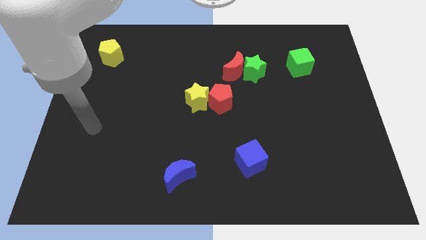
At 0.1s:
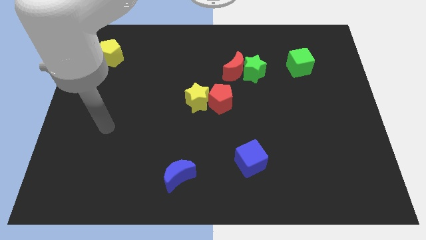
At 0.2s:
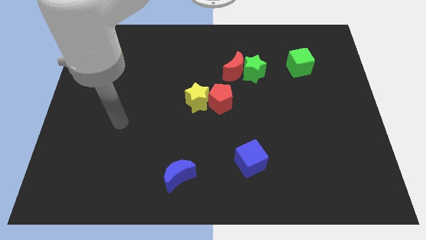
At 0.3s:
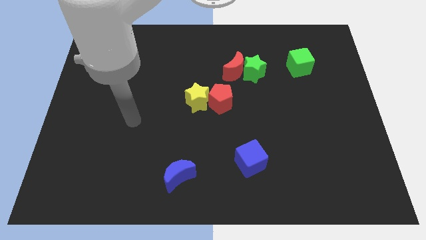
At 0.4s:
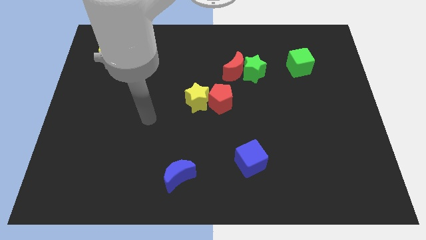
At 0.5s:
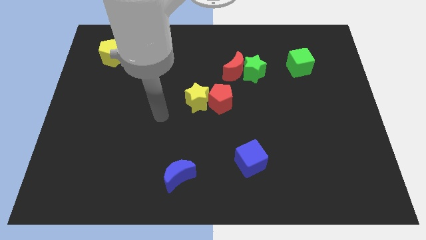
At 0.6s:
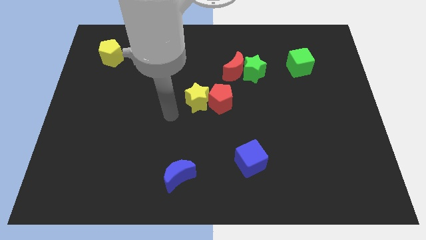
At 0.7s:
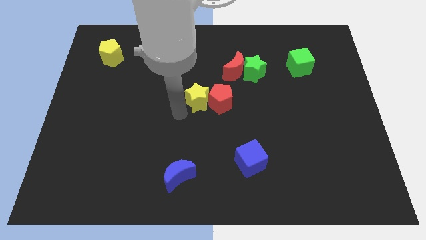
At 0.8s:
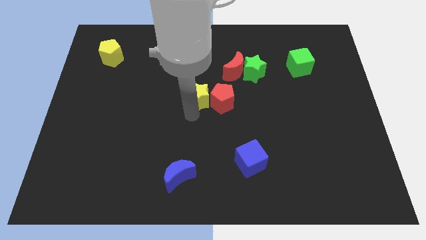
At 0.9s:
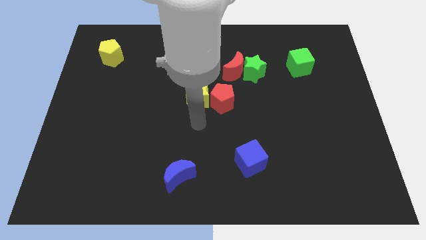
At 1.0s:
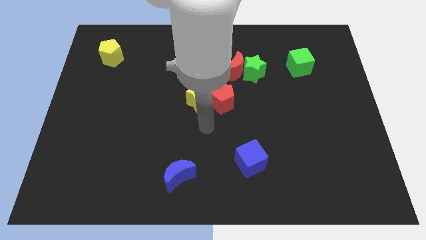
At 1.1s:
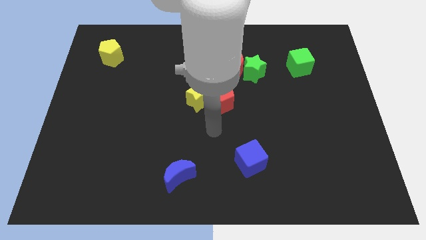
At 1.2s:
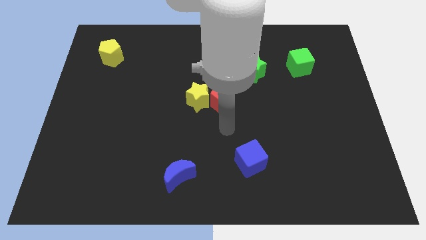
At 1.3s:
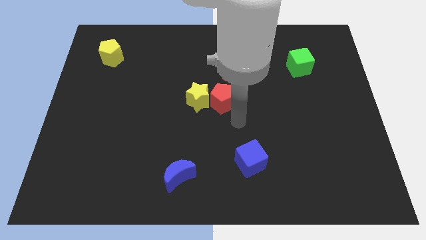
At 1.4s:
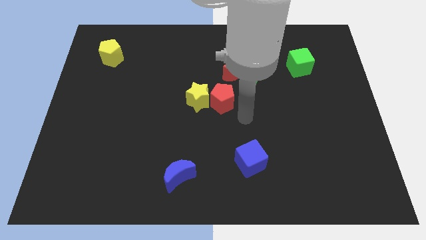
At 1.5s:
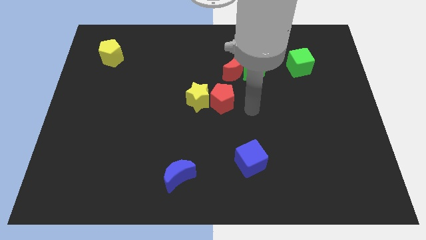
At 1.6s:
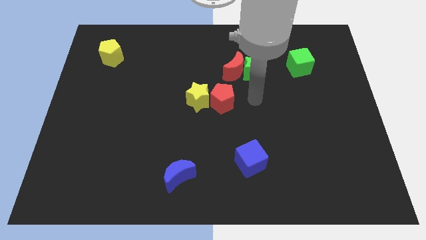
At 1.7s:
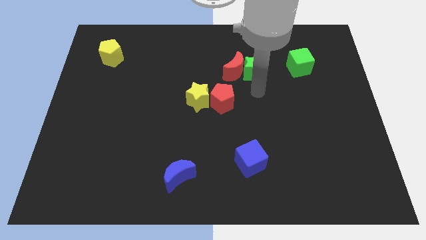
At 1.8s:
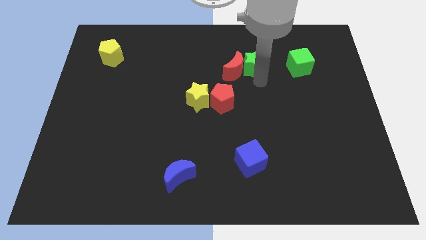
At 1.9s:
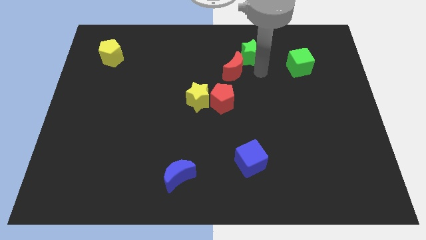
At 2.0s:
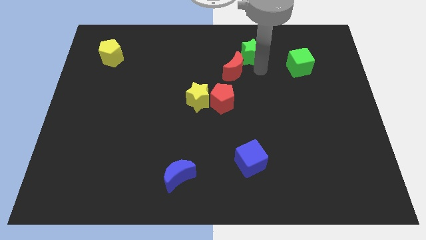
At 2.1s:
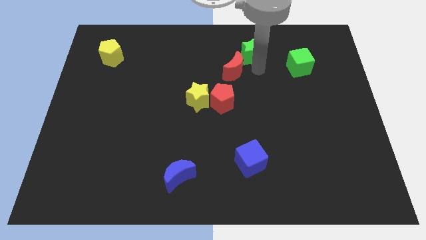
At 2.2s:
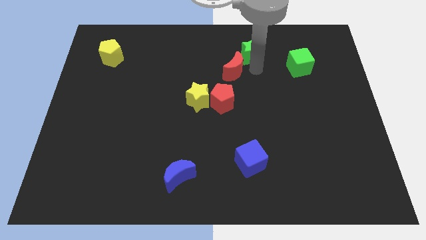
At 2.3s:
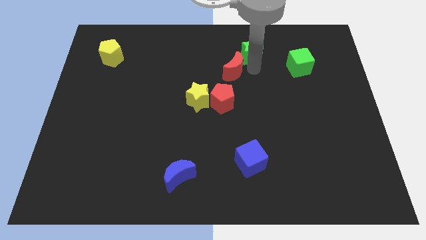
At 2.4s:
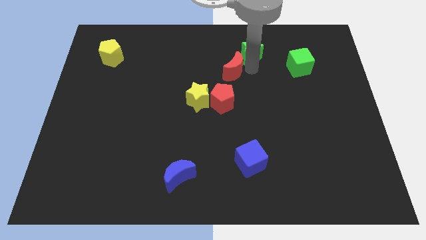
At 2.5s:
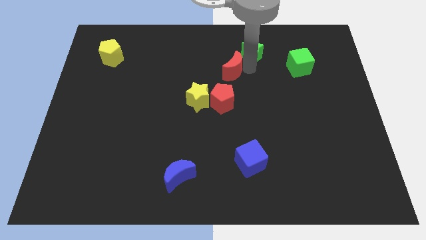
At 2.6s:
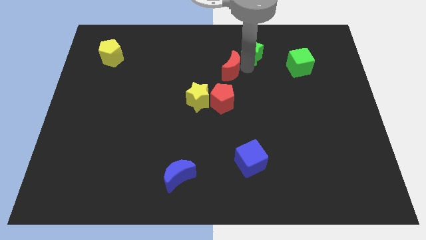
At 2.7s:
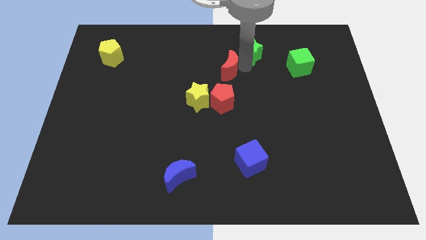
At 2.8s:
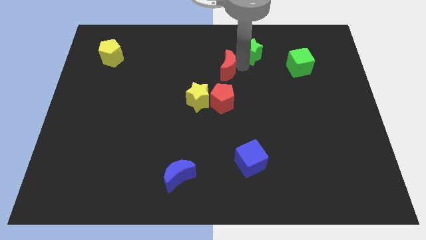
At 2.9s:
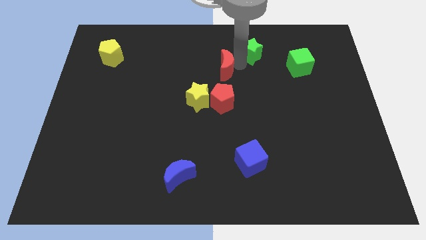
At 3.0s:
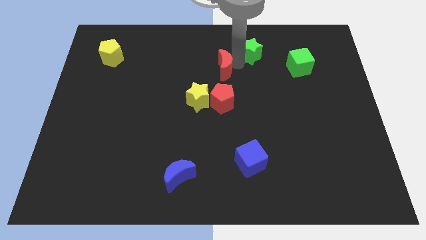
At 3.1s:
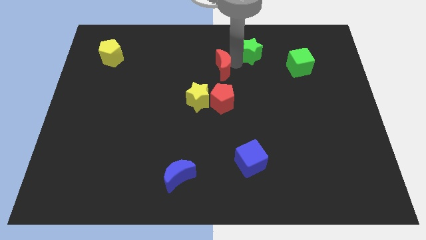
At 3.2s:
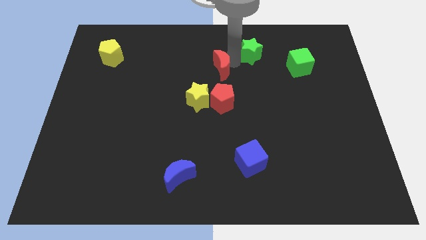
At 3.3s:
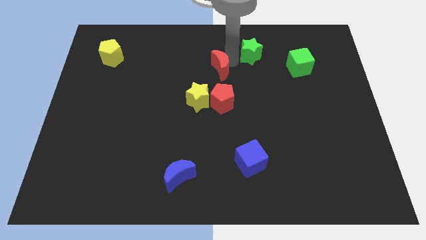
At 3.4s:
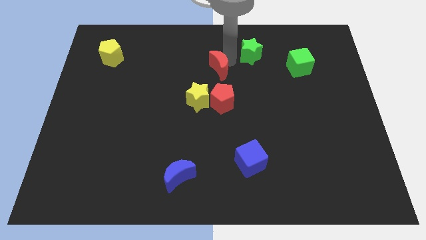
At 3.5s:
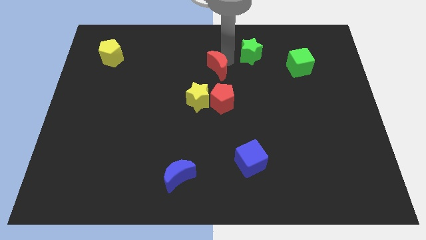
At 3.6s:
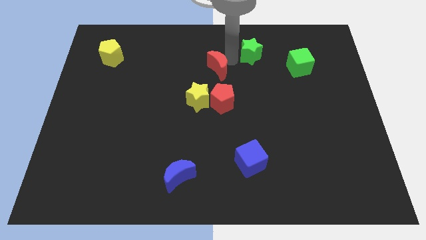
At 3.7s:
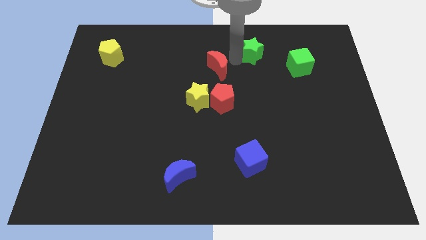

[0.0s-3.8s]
pull the red moon apart from the green star

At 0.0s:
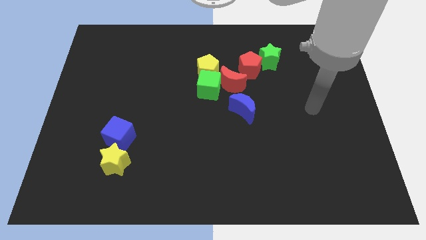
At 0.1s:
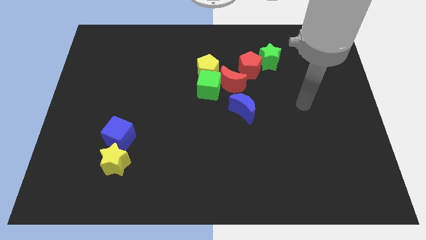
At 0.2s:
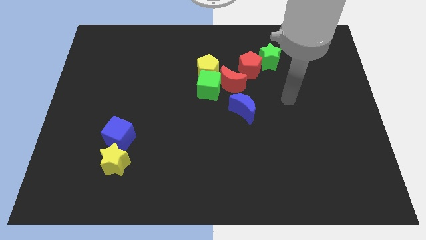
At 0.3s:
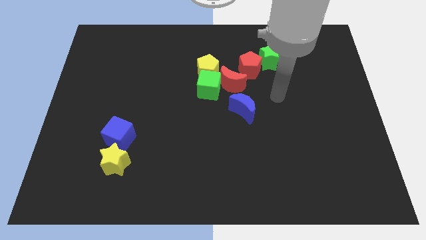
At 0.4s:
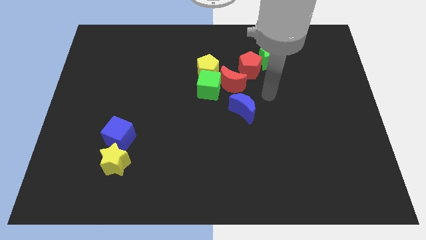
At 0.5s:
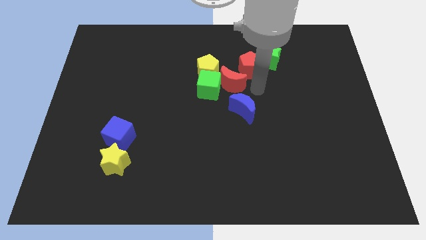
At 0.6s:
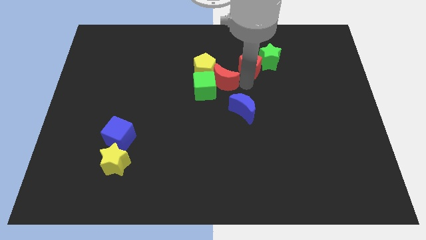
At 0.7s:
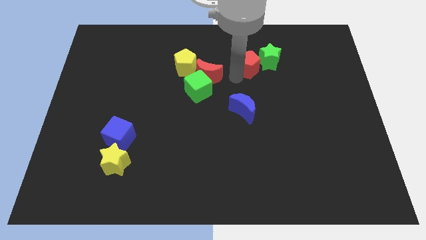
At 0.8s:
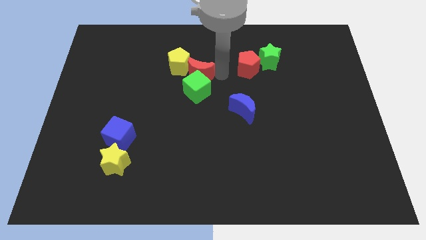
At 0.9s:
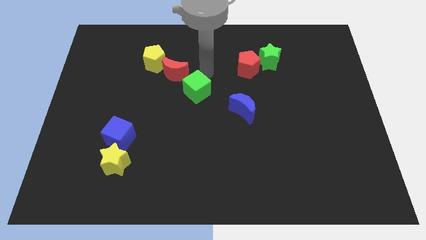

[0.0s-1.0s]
move the green cube away from the yellow pentagon and red moon

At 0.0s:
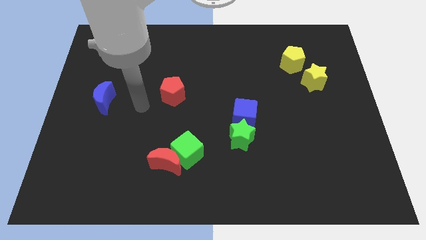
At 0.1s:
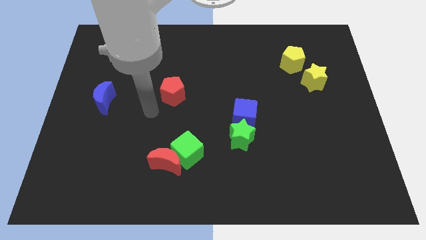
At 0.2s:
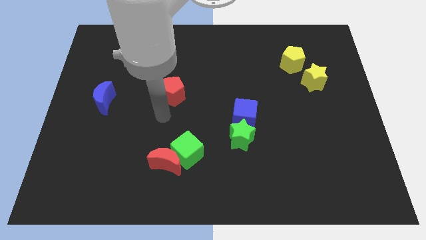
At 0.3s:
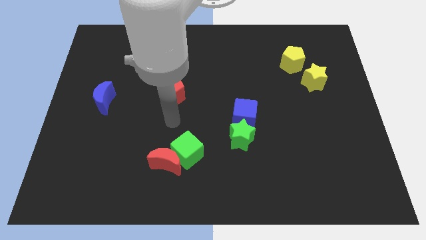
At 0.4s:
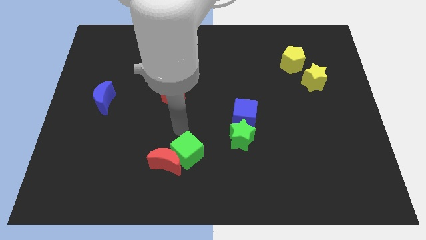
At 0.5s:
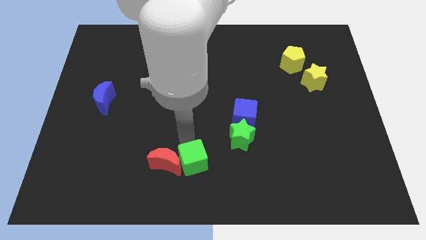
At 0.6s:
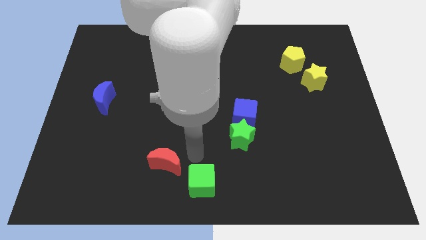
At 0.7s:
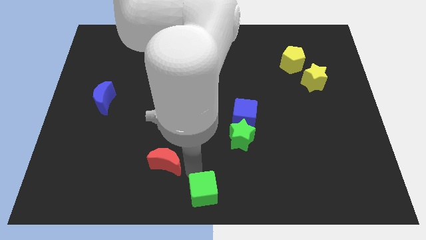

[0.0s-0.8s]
pull the red moon apart from the green cube

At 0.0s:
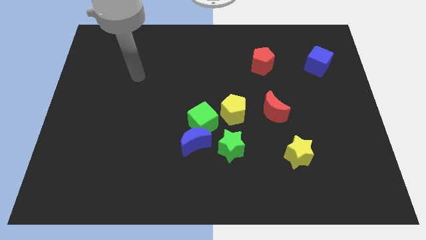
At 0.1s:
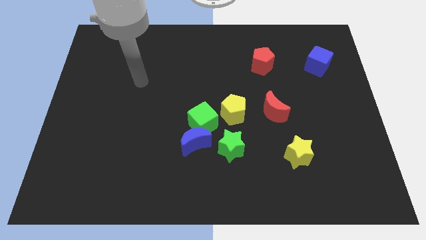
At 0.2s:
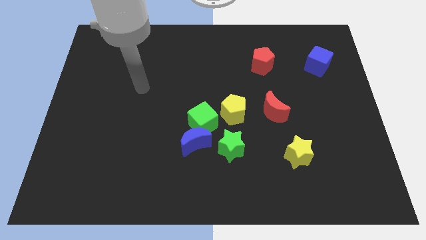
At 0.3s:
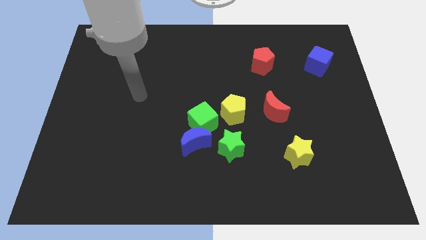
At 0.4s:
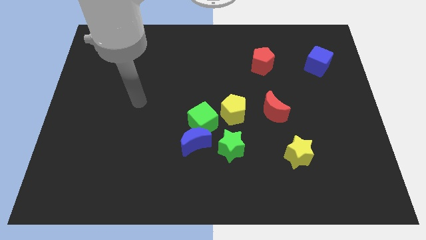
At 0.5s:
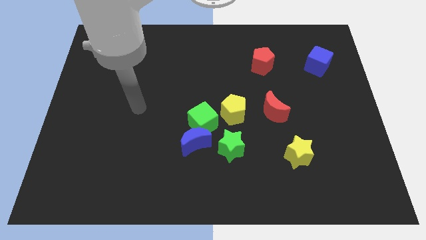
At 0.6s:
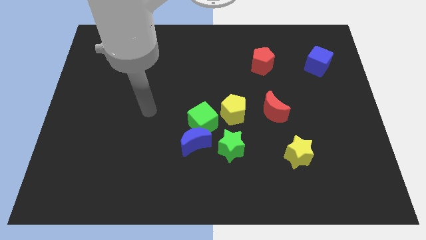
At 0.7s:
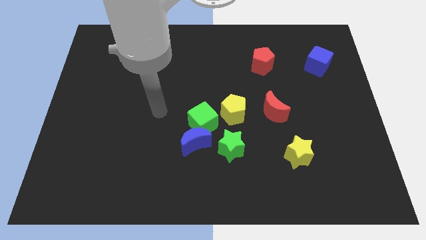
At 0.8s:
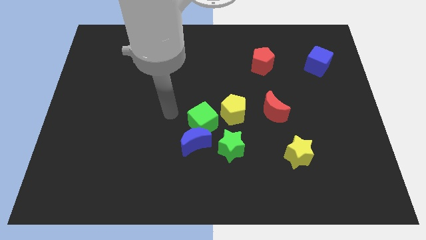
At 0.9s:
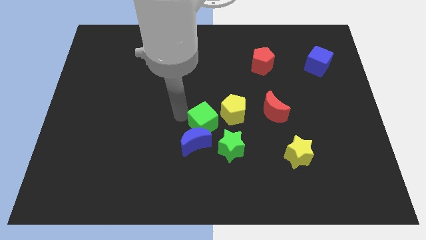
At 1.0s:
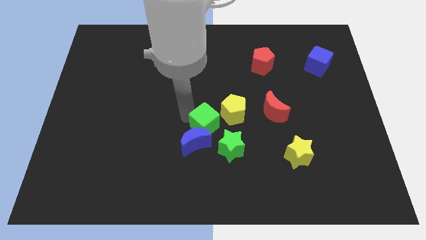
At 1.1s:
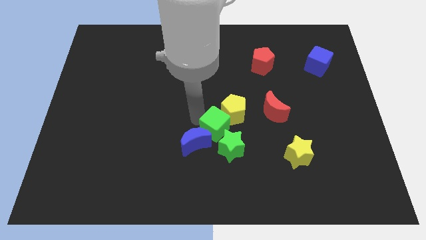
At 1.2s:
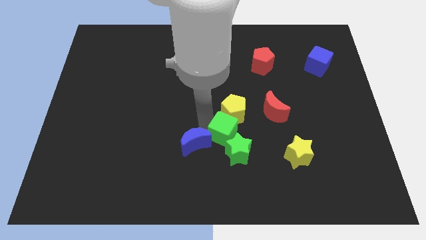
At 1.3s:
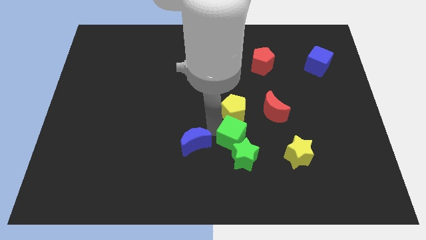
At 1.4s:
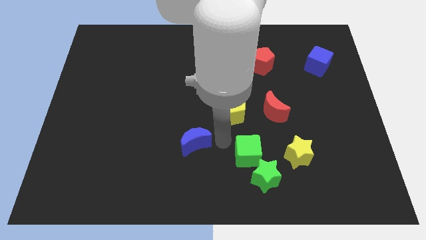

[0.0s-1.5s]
pull the blue moon apart from the green cube and green star

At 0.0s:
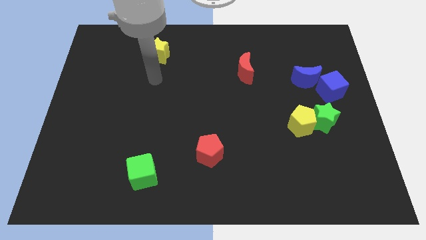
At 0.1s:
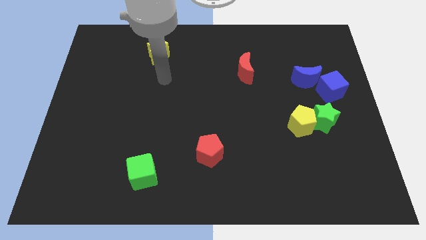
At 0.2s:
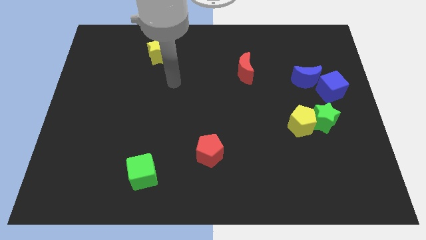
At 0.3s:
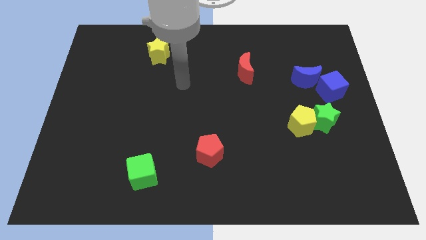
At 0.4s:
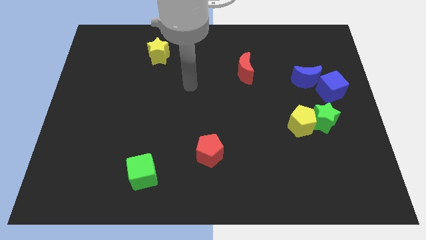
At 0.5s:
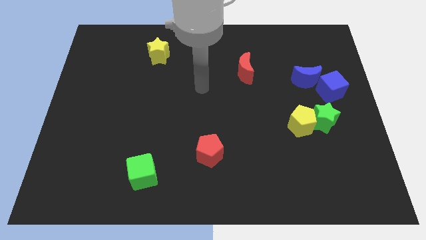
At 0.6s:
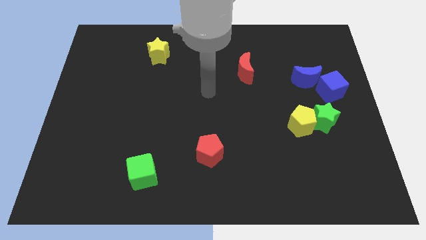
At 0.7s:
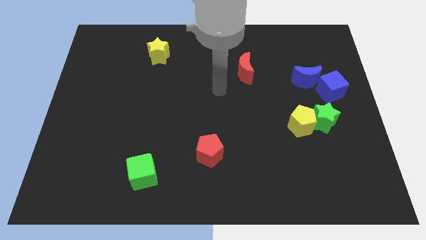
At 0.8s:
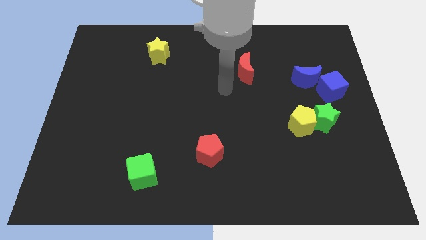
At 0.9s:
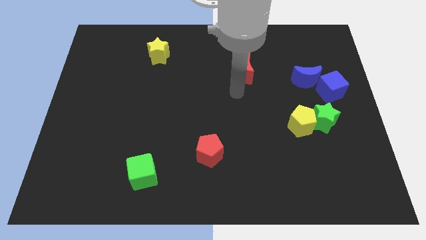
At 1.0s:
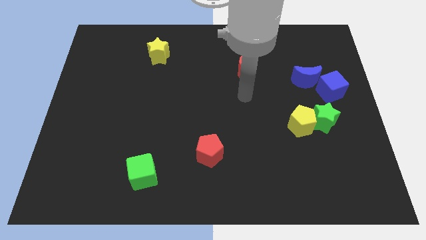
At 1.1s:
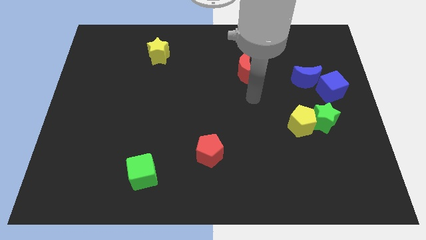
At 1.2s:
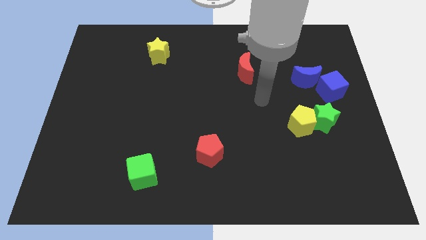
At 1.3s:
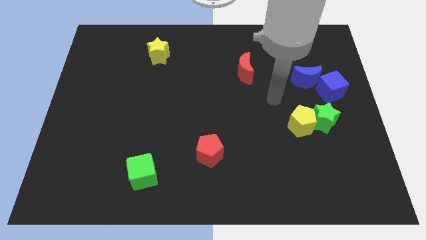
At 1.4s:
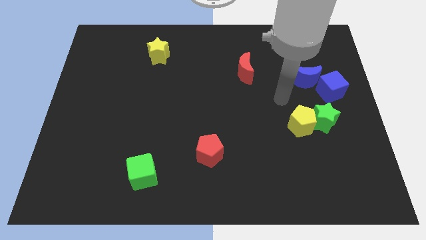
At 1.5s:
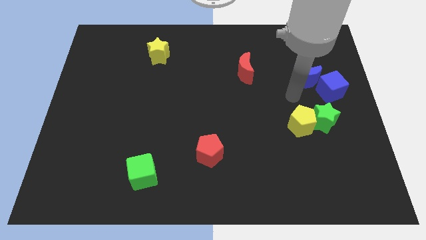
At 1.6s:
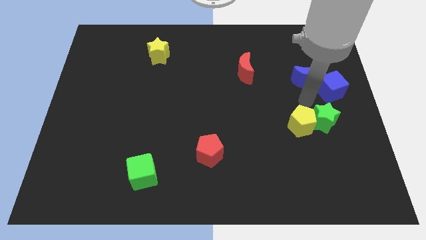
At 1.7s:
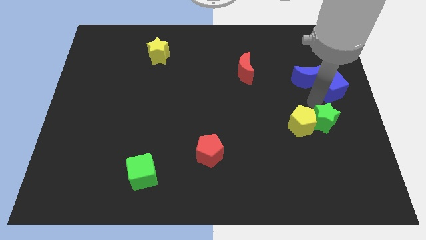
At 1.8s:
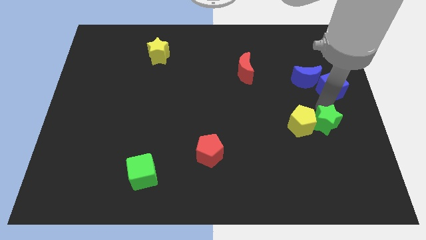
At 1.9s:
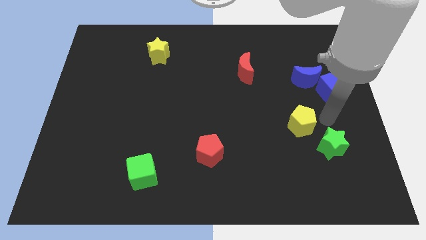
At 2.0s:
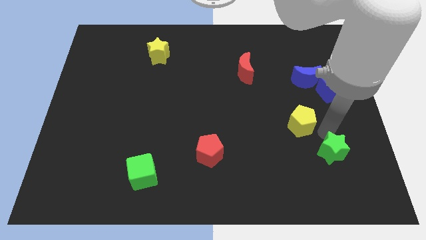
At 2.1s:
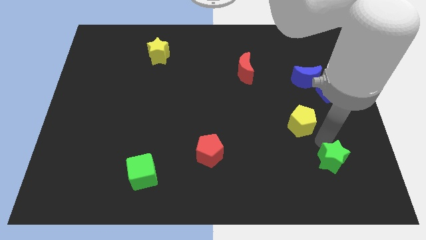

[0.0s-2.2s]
pull the yellow pentagon apart from the green star
